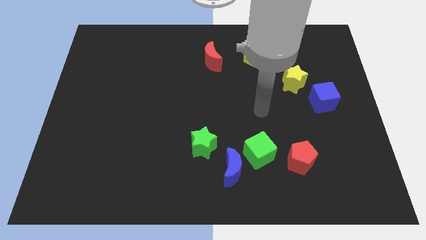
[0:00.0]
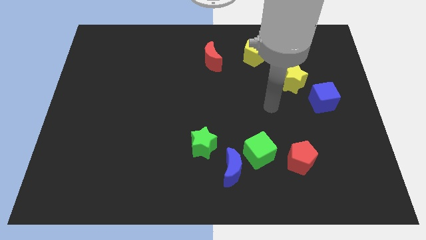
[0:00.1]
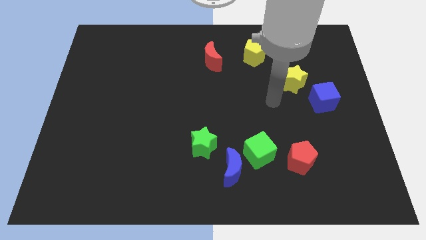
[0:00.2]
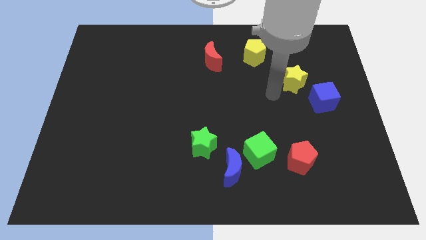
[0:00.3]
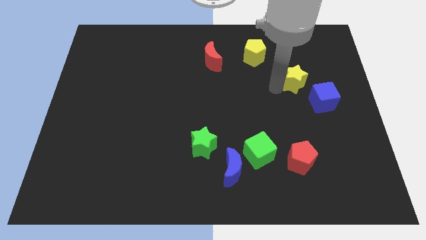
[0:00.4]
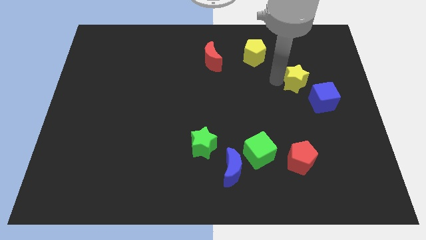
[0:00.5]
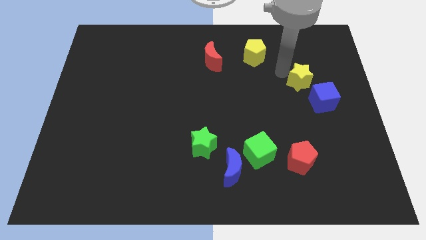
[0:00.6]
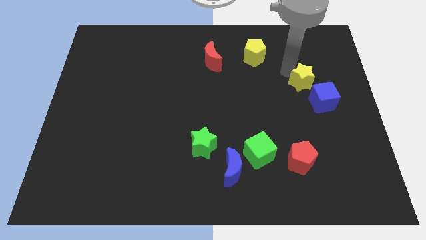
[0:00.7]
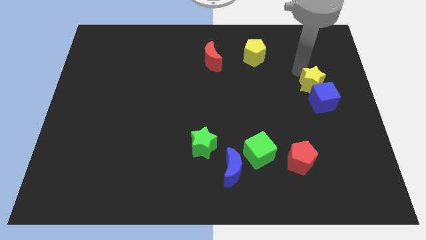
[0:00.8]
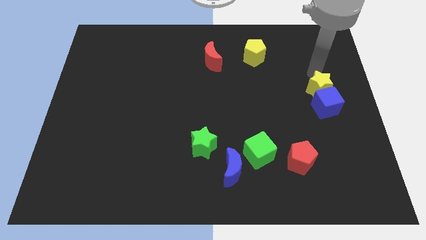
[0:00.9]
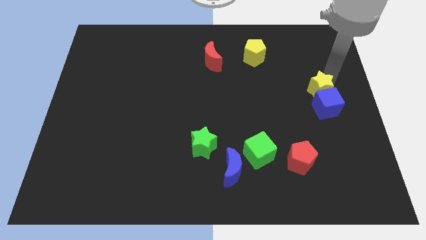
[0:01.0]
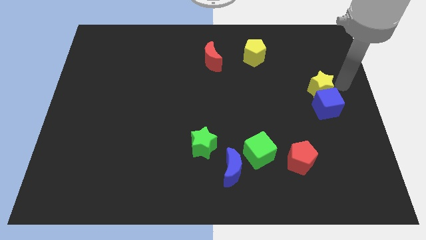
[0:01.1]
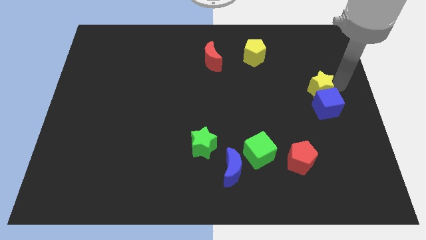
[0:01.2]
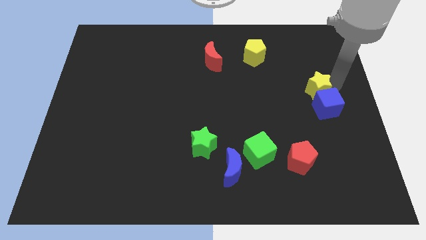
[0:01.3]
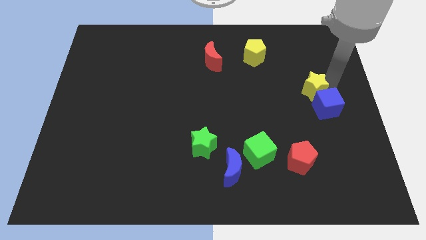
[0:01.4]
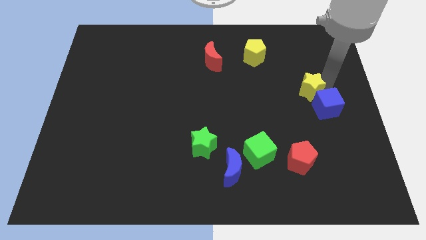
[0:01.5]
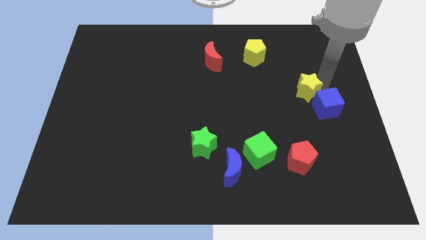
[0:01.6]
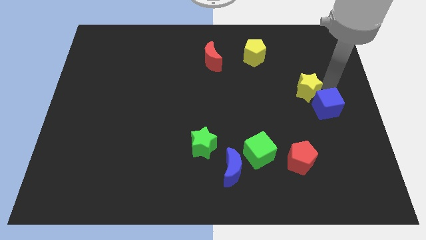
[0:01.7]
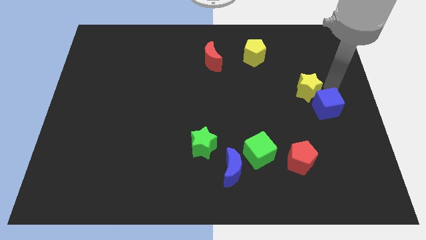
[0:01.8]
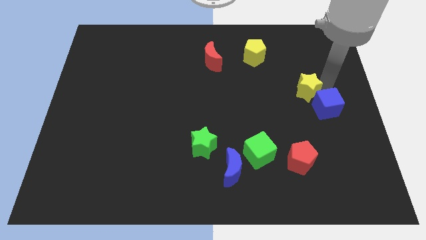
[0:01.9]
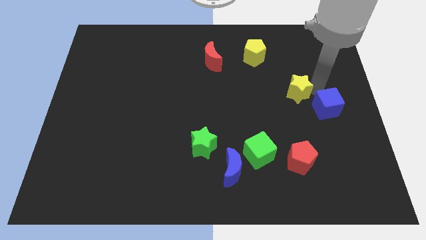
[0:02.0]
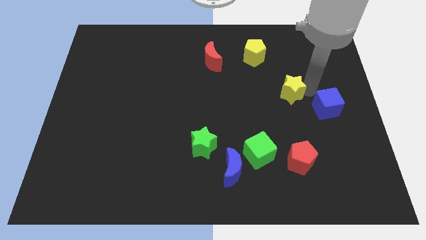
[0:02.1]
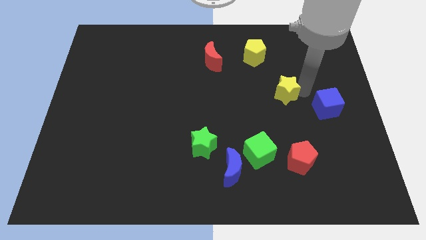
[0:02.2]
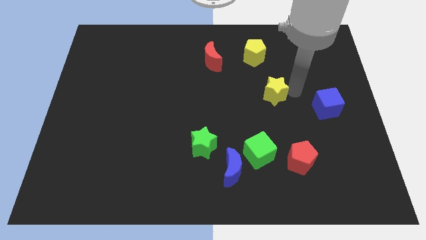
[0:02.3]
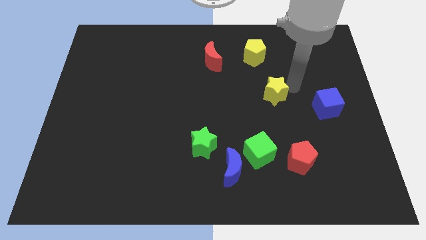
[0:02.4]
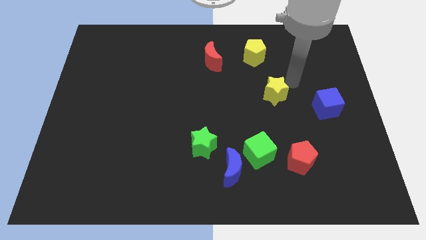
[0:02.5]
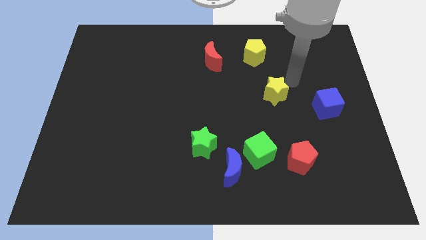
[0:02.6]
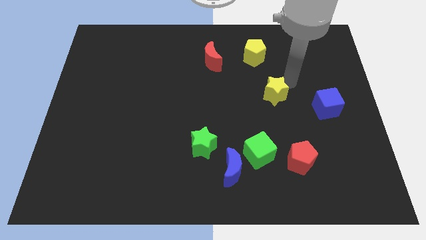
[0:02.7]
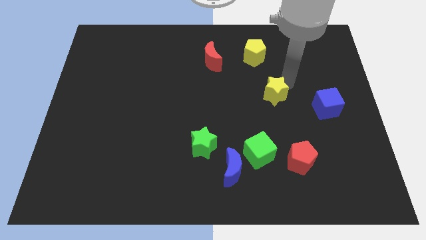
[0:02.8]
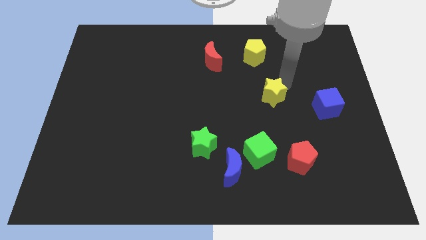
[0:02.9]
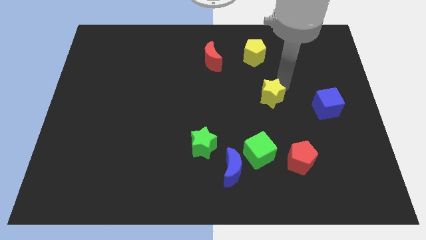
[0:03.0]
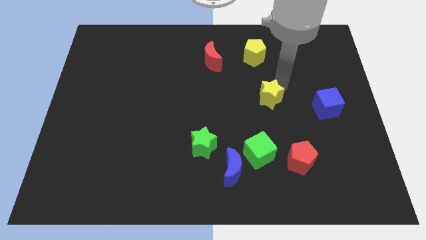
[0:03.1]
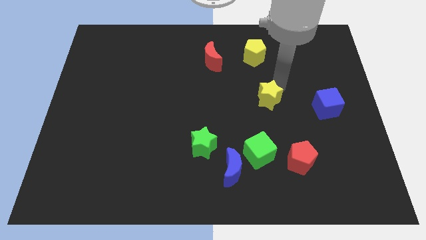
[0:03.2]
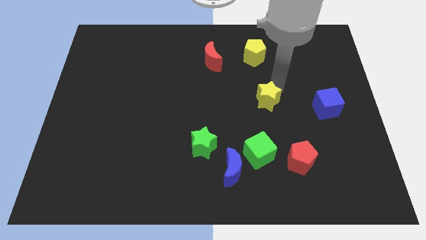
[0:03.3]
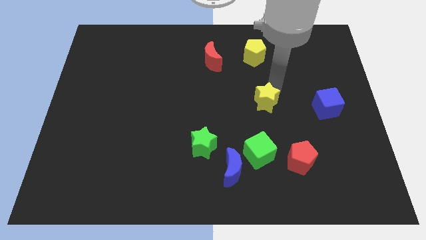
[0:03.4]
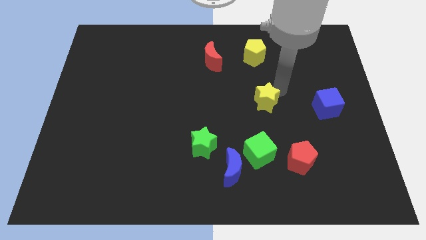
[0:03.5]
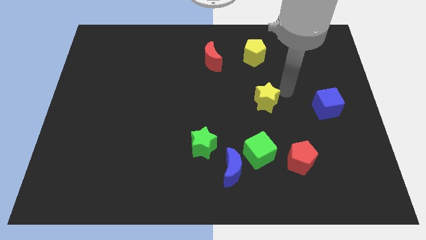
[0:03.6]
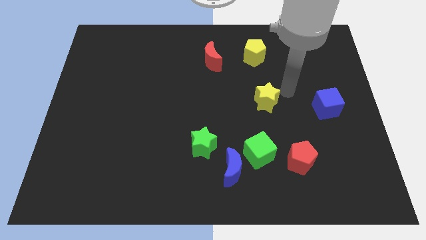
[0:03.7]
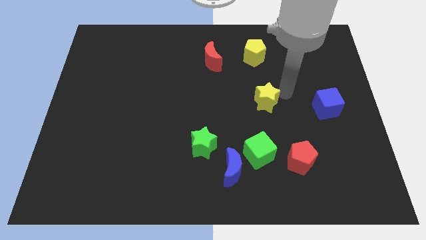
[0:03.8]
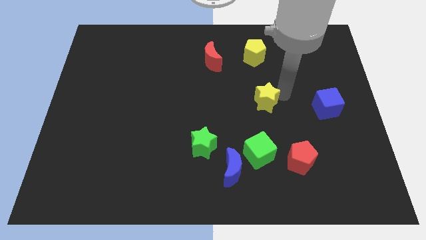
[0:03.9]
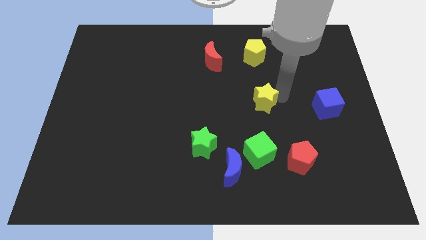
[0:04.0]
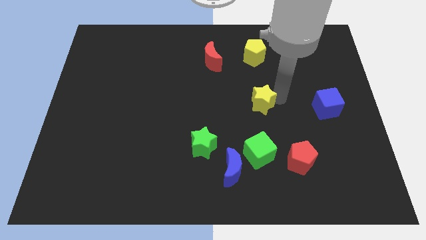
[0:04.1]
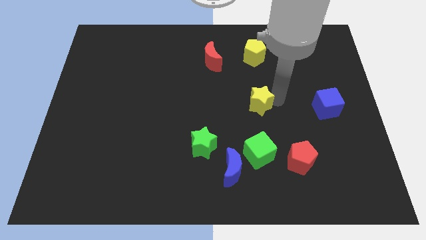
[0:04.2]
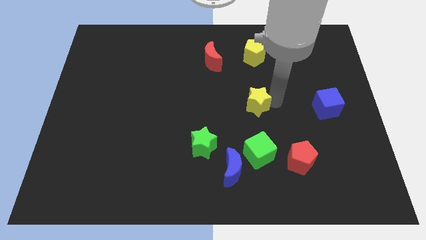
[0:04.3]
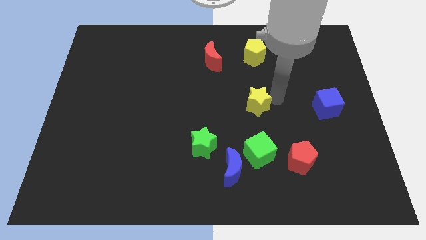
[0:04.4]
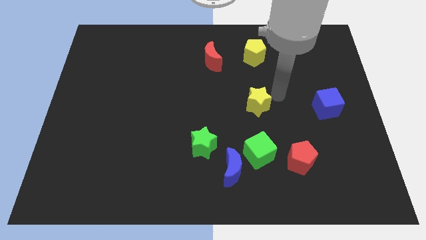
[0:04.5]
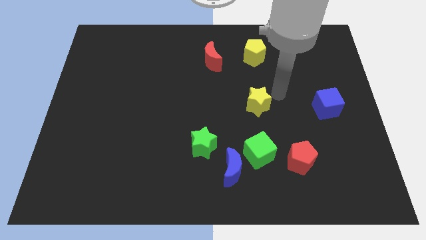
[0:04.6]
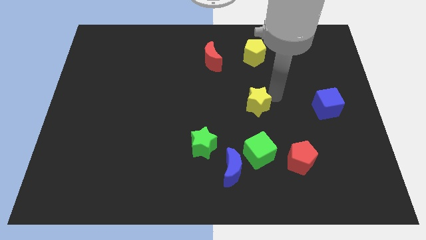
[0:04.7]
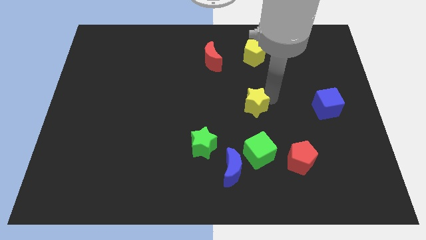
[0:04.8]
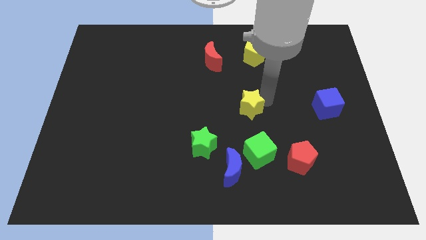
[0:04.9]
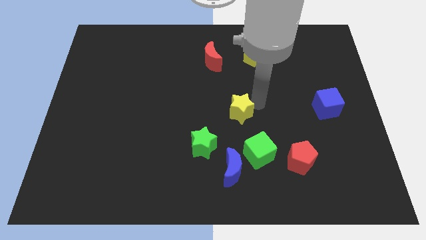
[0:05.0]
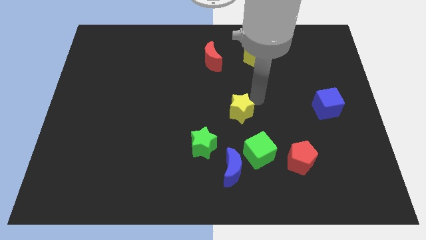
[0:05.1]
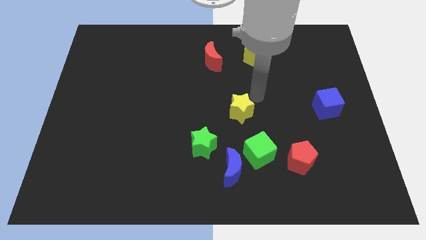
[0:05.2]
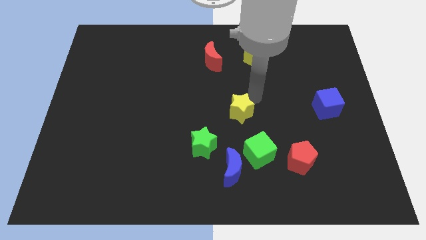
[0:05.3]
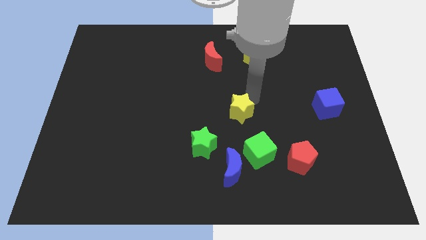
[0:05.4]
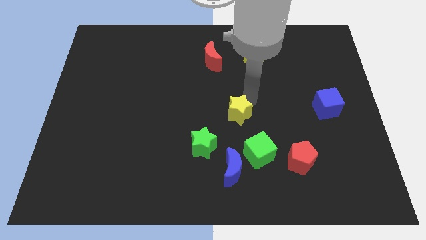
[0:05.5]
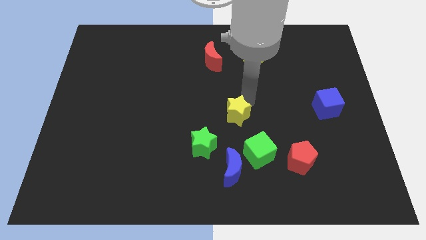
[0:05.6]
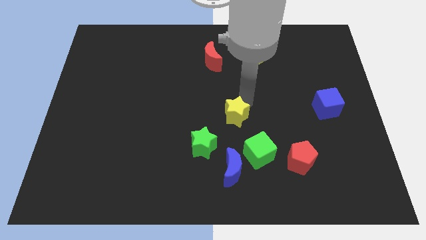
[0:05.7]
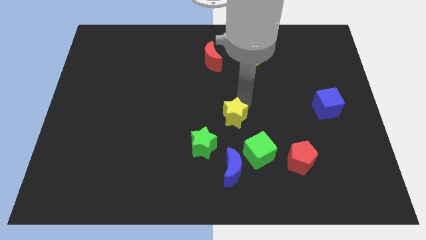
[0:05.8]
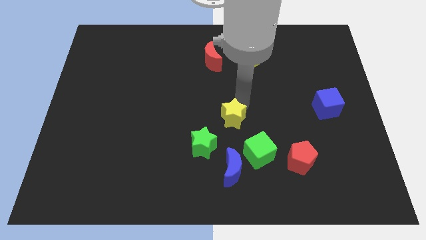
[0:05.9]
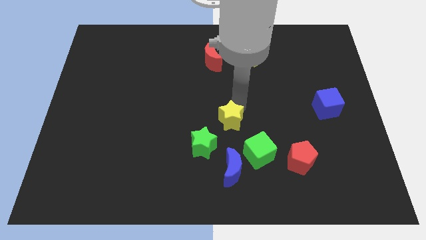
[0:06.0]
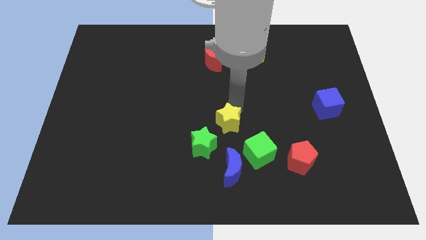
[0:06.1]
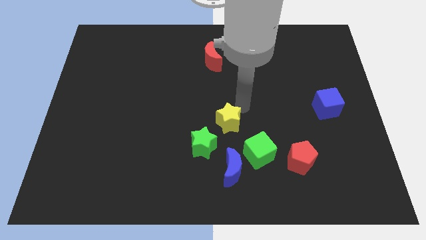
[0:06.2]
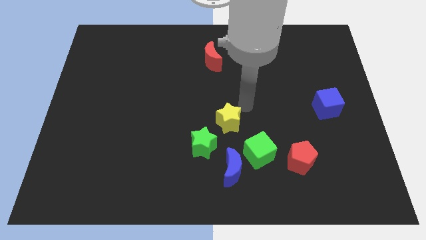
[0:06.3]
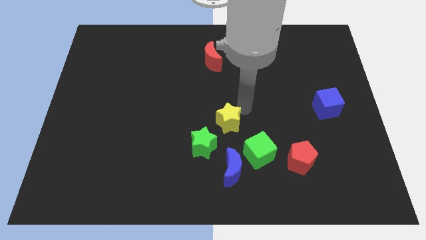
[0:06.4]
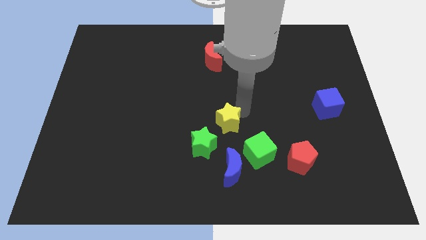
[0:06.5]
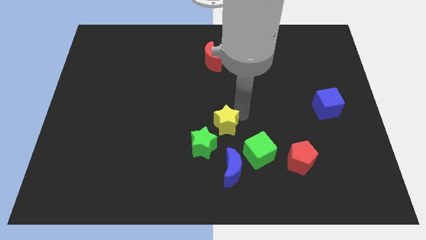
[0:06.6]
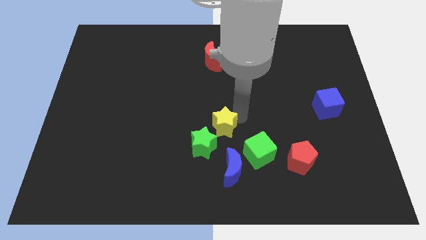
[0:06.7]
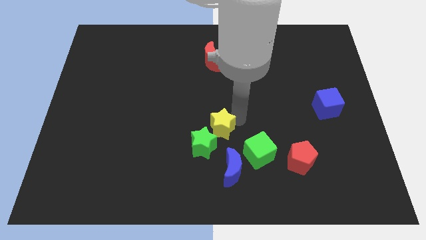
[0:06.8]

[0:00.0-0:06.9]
move the yellow star next to the green star
